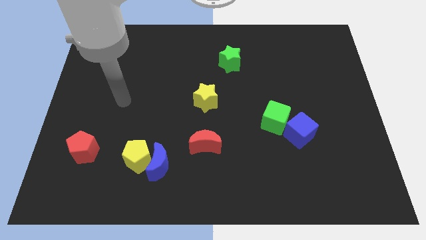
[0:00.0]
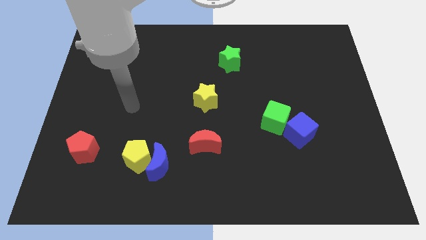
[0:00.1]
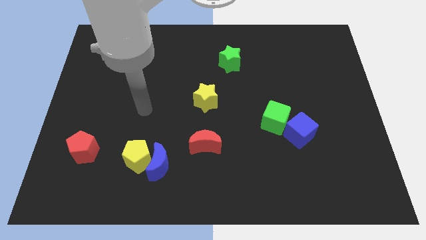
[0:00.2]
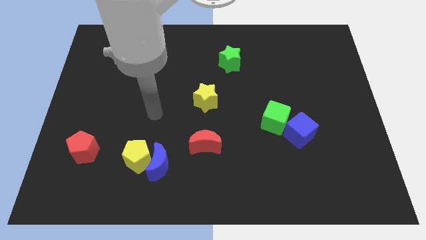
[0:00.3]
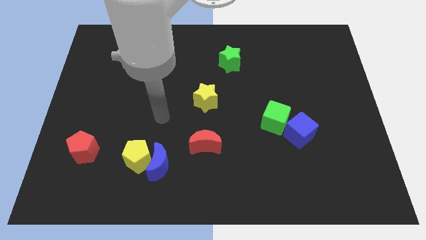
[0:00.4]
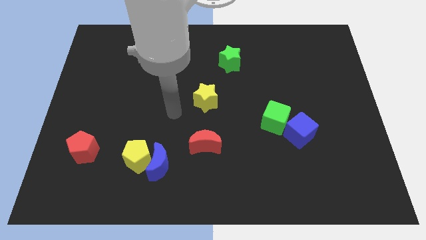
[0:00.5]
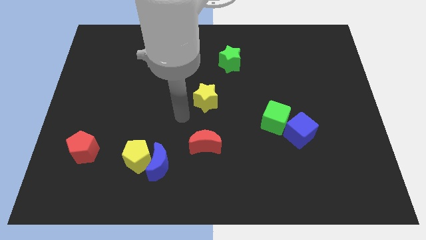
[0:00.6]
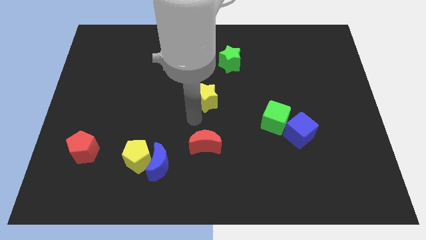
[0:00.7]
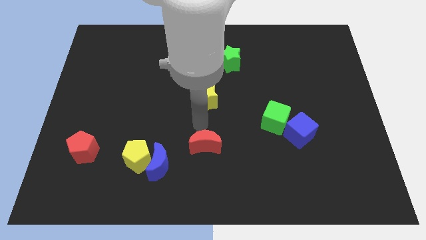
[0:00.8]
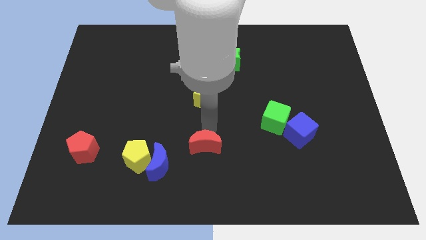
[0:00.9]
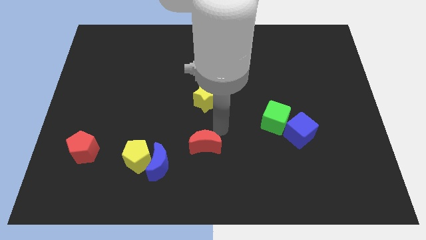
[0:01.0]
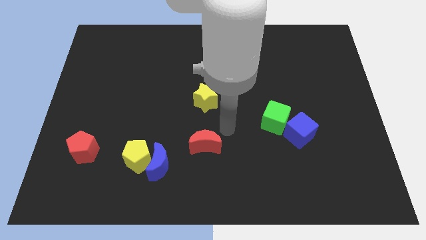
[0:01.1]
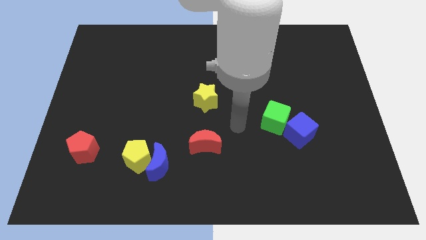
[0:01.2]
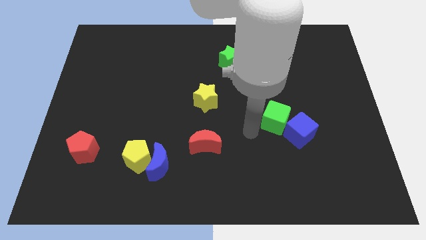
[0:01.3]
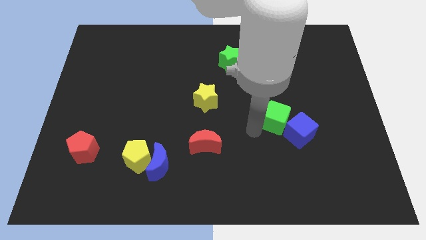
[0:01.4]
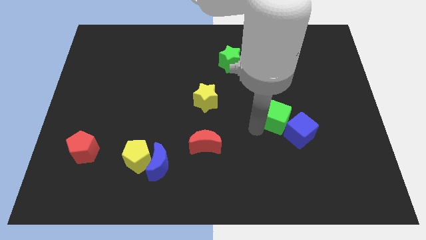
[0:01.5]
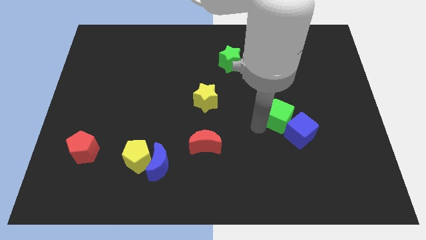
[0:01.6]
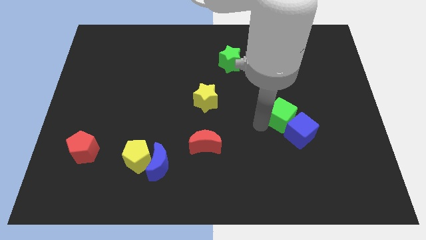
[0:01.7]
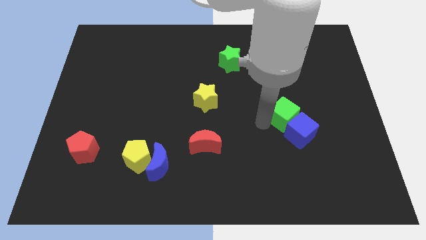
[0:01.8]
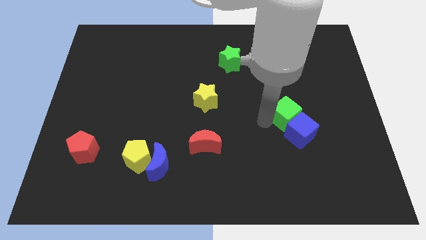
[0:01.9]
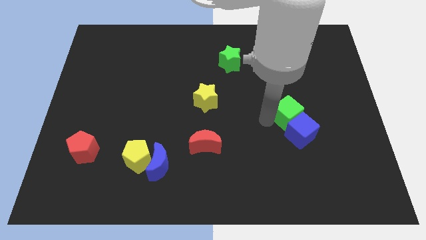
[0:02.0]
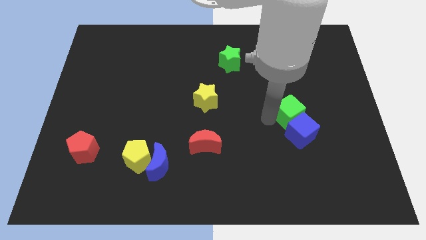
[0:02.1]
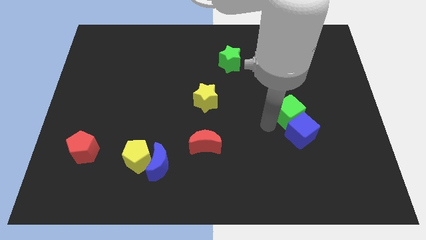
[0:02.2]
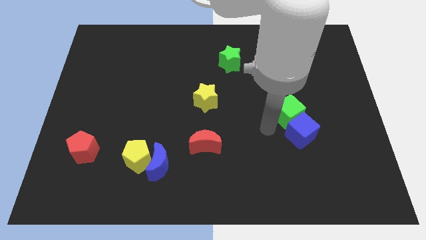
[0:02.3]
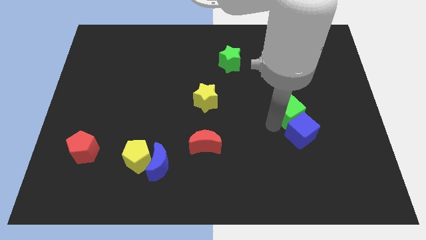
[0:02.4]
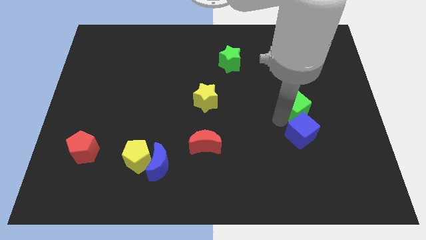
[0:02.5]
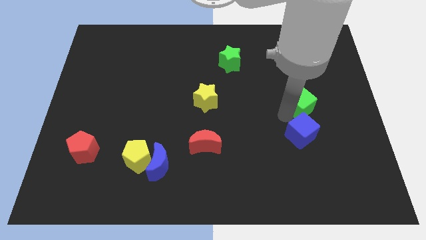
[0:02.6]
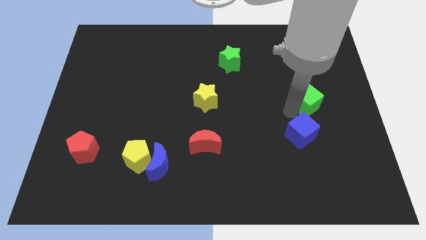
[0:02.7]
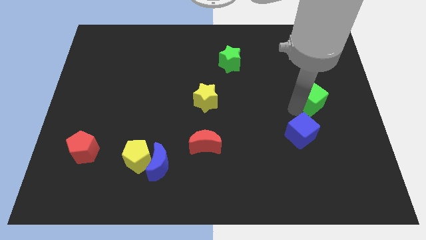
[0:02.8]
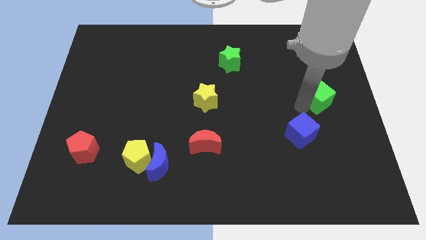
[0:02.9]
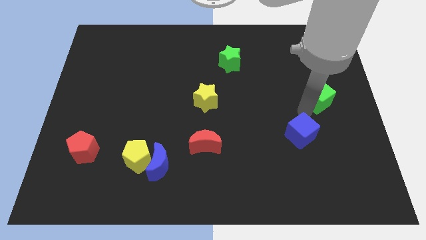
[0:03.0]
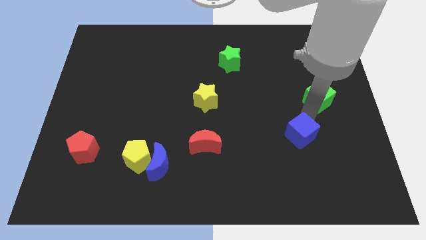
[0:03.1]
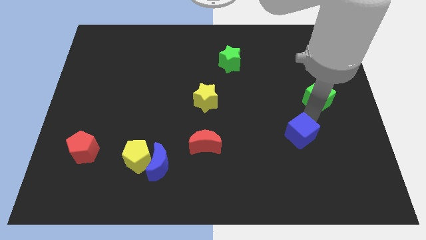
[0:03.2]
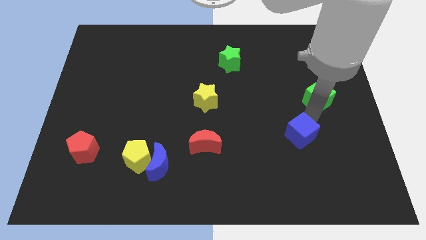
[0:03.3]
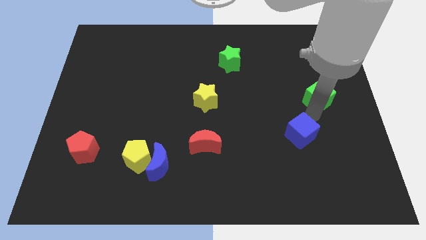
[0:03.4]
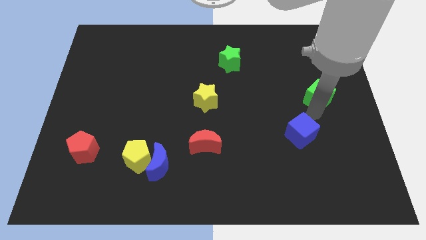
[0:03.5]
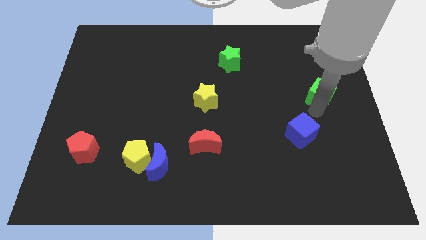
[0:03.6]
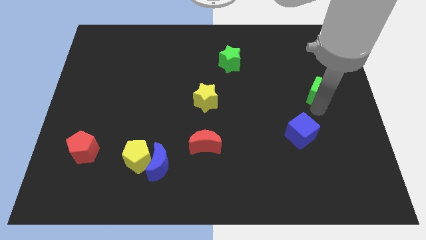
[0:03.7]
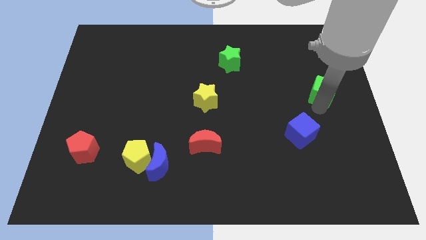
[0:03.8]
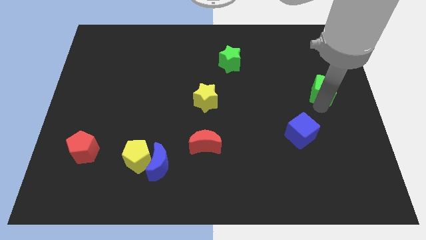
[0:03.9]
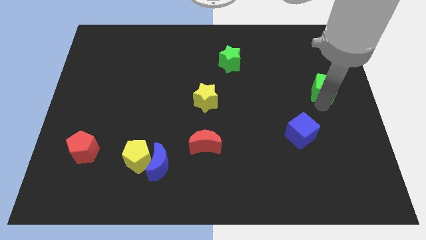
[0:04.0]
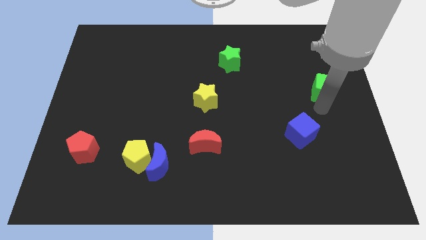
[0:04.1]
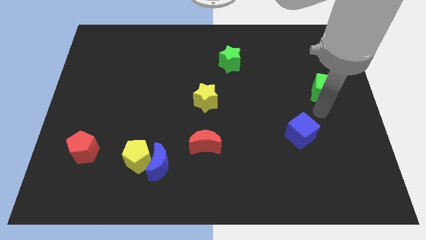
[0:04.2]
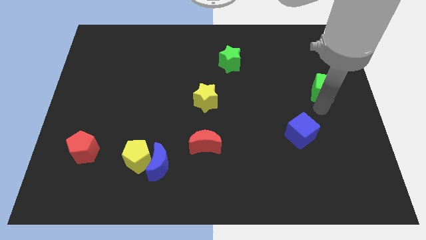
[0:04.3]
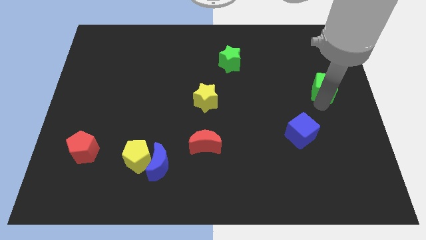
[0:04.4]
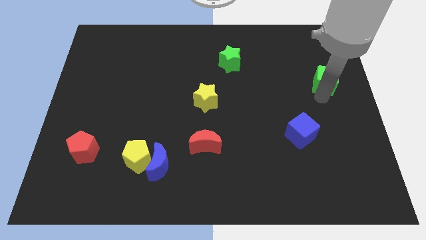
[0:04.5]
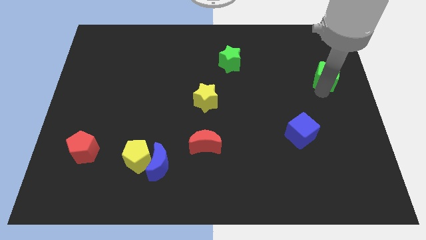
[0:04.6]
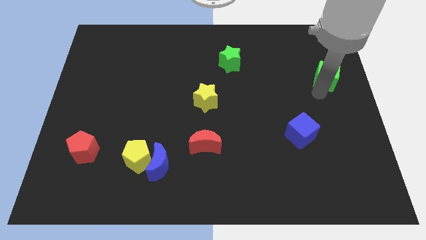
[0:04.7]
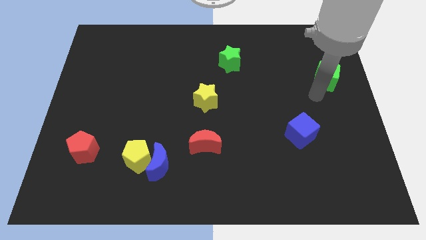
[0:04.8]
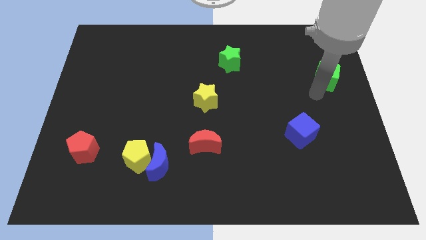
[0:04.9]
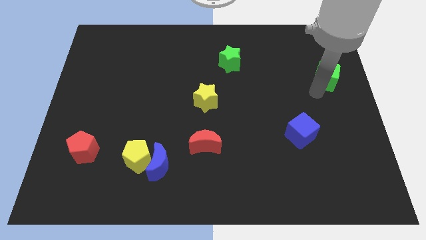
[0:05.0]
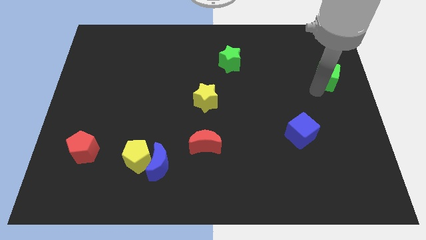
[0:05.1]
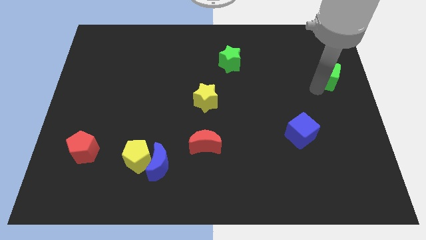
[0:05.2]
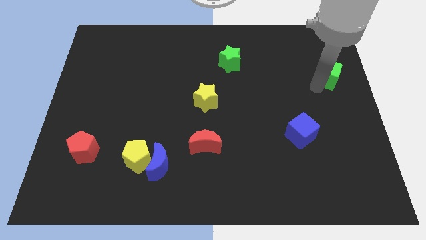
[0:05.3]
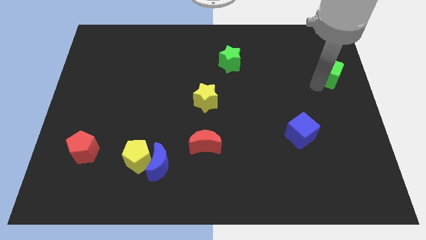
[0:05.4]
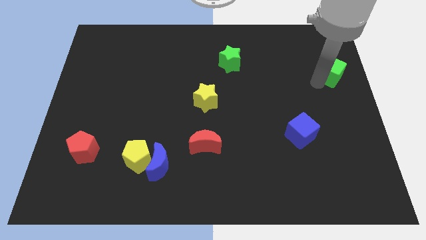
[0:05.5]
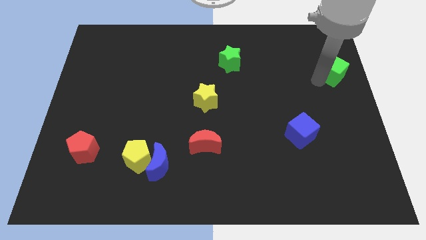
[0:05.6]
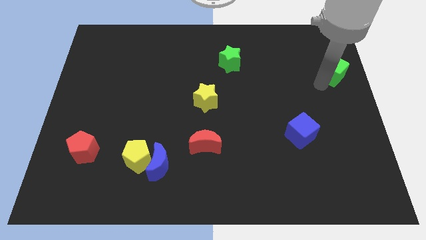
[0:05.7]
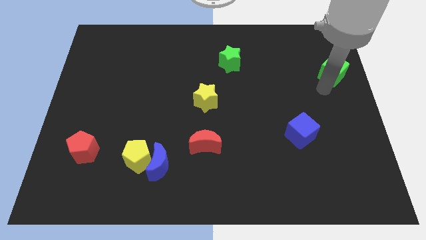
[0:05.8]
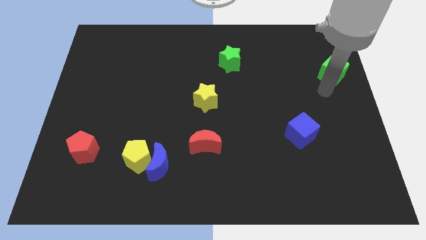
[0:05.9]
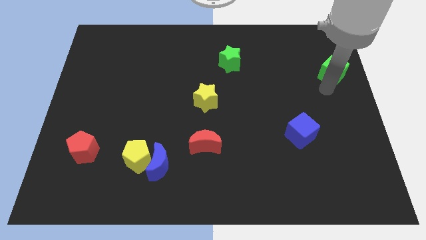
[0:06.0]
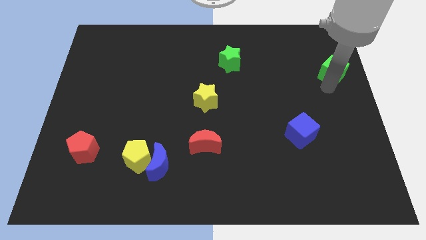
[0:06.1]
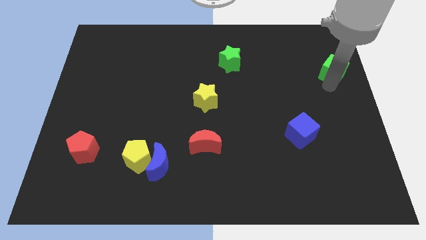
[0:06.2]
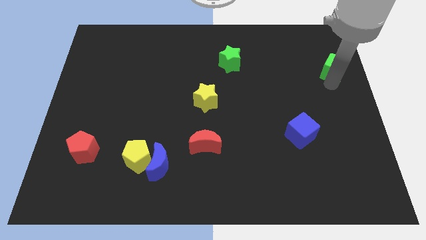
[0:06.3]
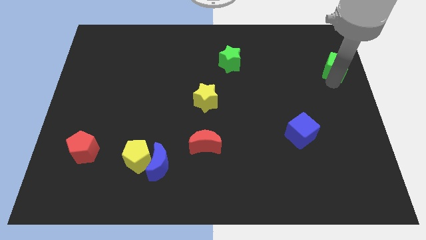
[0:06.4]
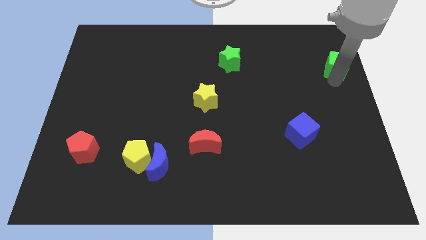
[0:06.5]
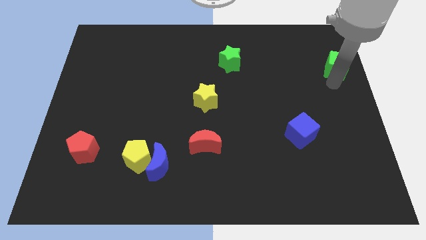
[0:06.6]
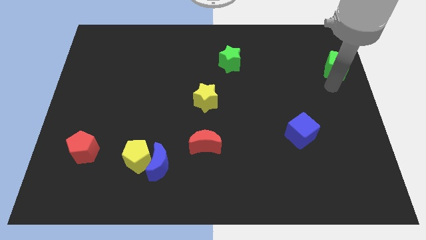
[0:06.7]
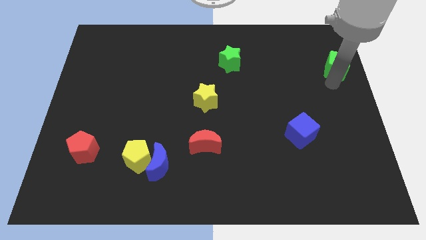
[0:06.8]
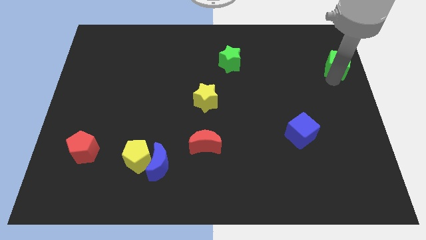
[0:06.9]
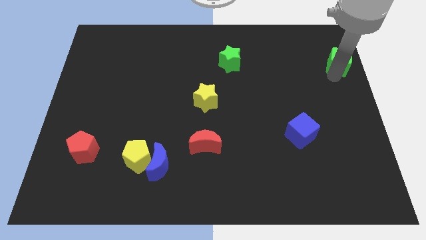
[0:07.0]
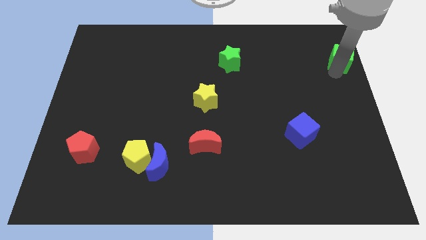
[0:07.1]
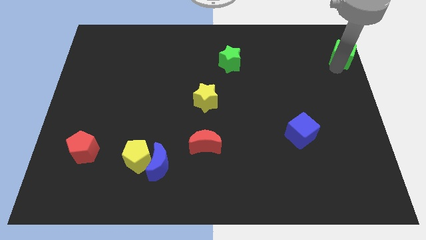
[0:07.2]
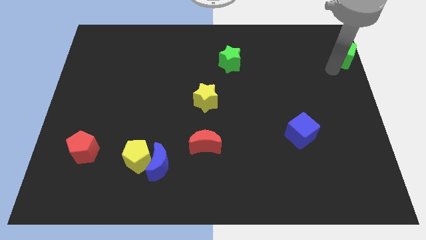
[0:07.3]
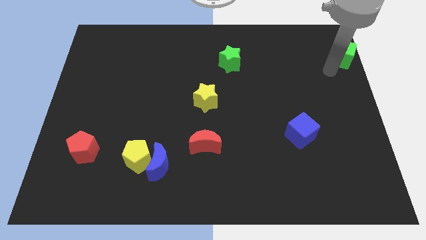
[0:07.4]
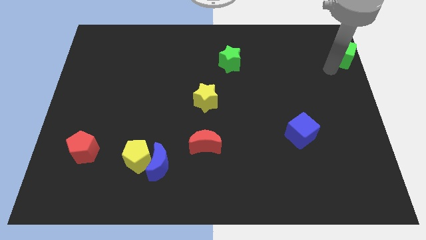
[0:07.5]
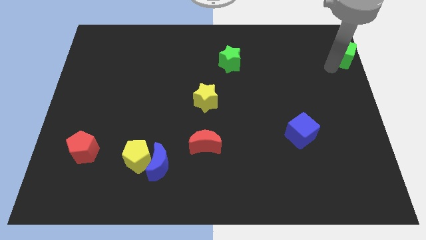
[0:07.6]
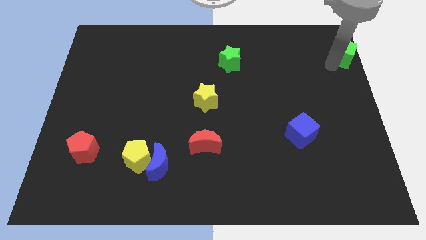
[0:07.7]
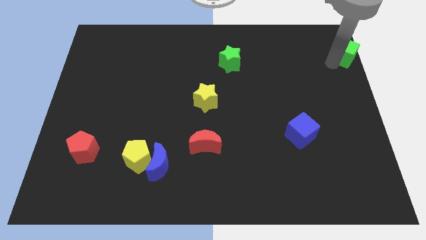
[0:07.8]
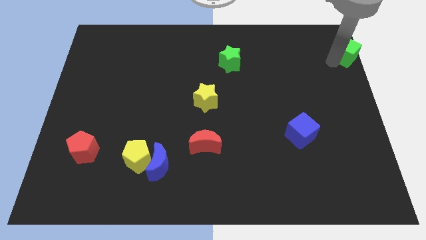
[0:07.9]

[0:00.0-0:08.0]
push the green cube to the upper right corner
